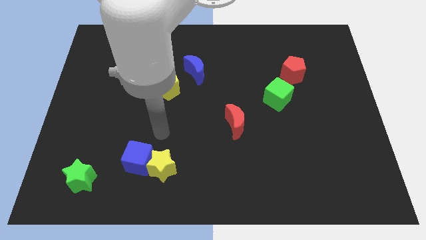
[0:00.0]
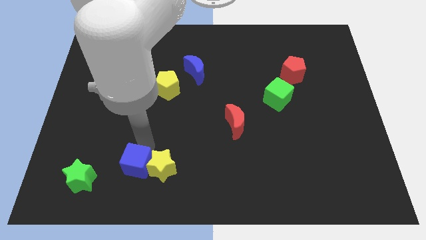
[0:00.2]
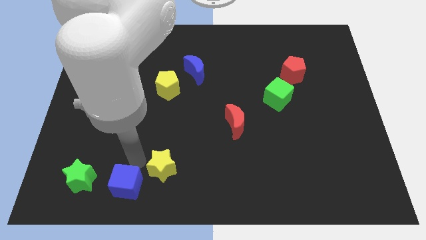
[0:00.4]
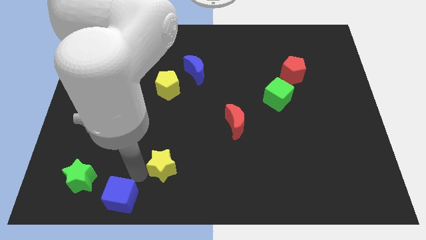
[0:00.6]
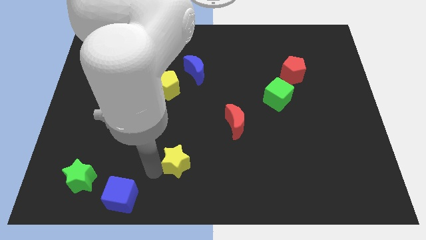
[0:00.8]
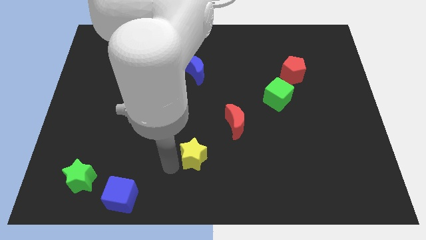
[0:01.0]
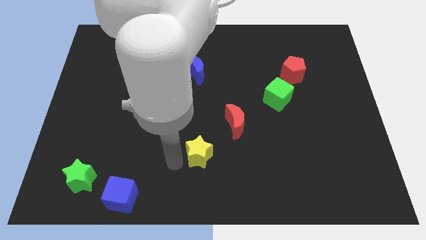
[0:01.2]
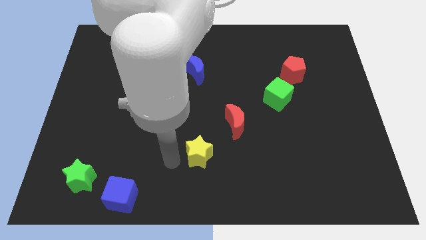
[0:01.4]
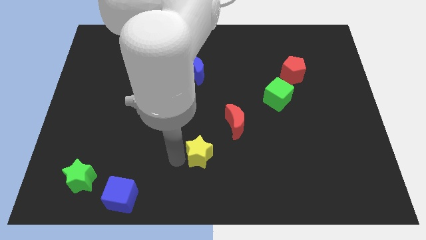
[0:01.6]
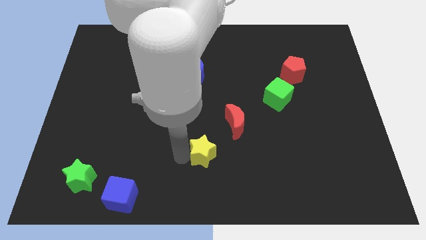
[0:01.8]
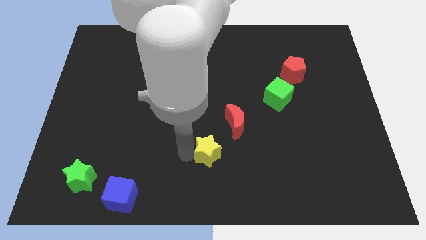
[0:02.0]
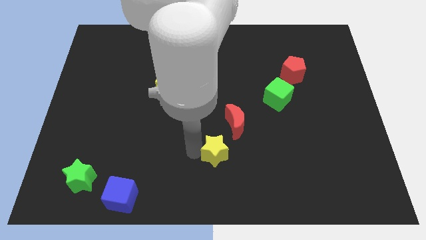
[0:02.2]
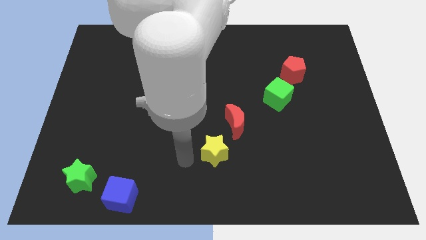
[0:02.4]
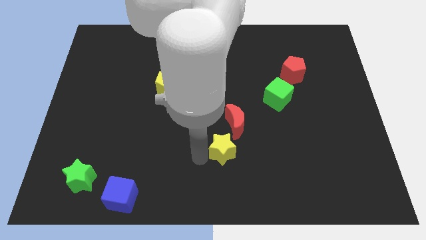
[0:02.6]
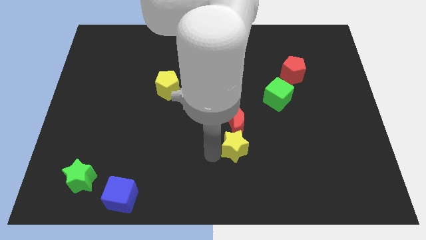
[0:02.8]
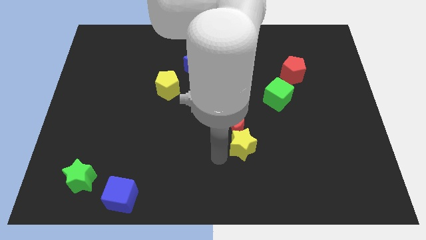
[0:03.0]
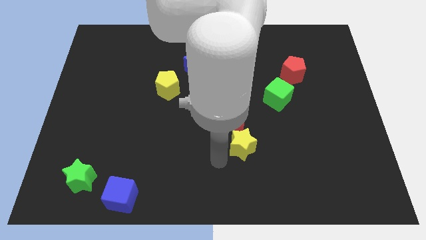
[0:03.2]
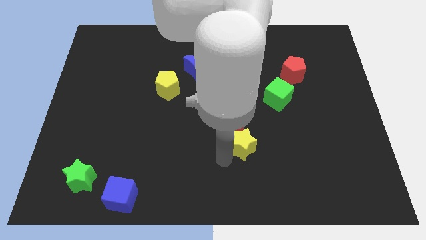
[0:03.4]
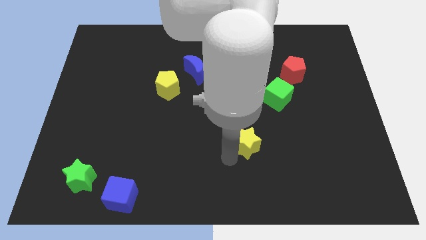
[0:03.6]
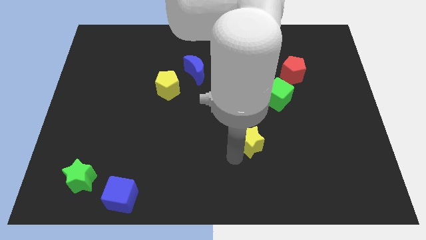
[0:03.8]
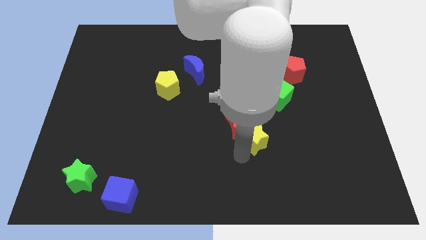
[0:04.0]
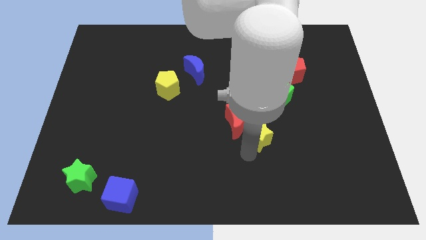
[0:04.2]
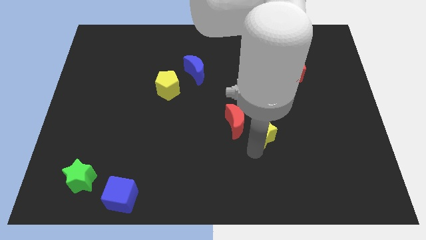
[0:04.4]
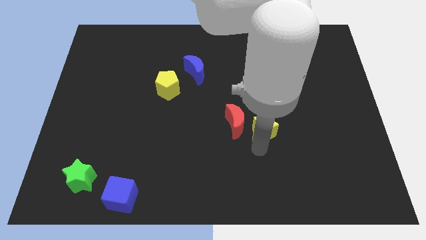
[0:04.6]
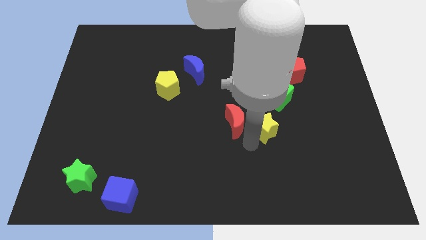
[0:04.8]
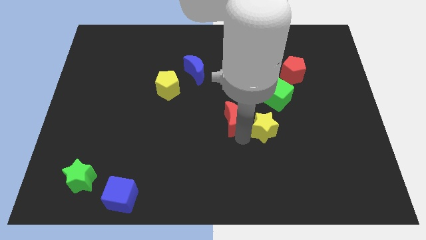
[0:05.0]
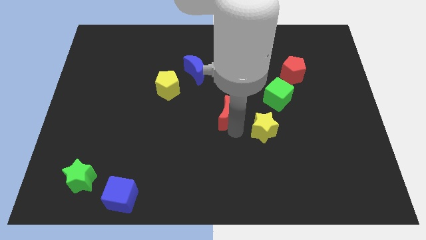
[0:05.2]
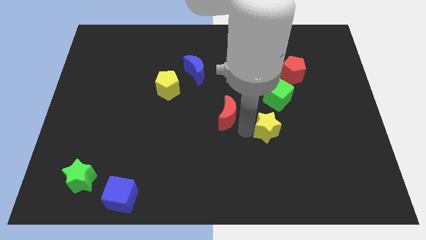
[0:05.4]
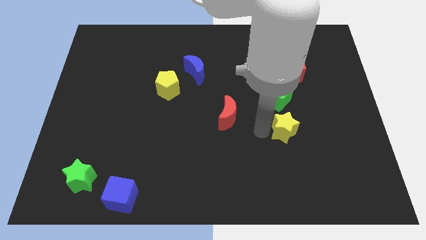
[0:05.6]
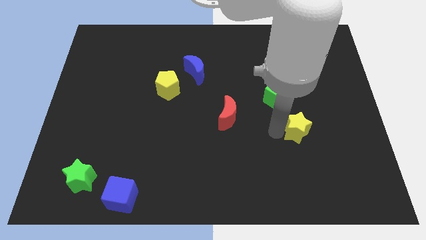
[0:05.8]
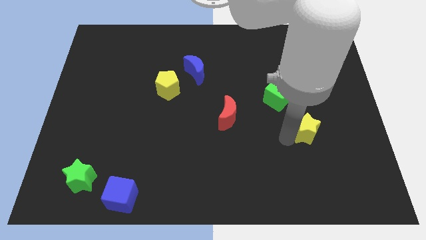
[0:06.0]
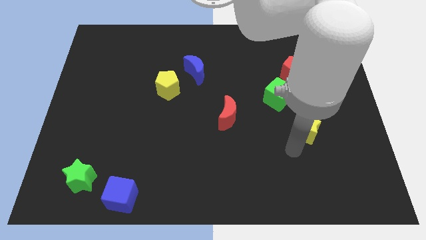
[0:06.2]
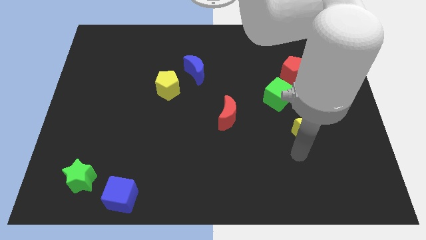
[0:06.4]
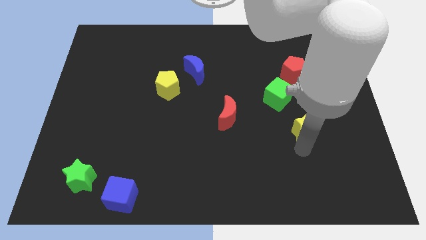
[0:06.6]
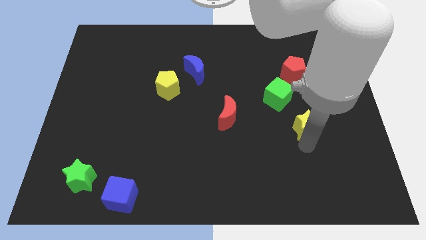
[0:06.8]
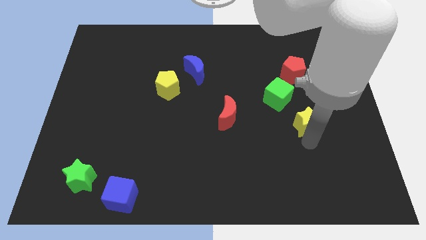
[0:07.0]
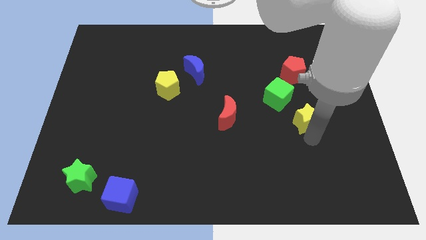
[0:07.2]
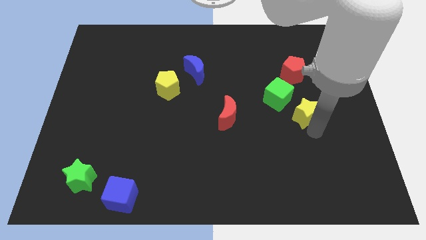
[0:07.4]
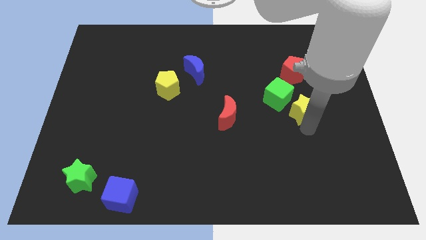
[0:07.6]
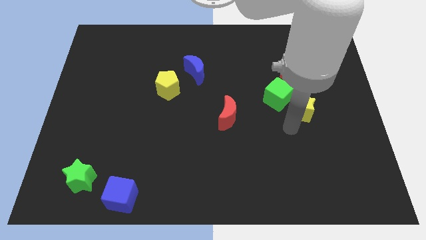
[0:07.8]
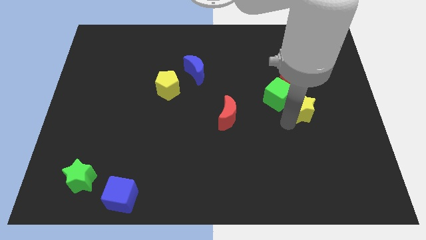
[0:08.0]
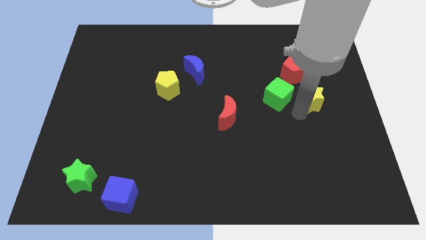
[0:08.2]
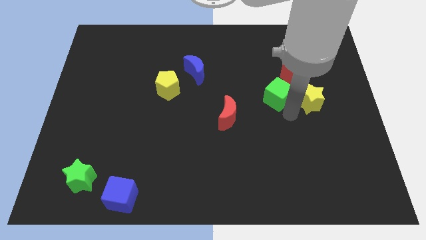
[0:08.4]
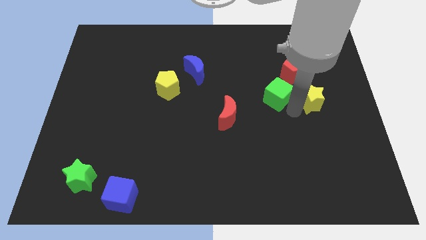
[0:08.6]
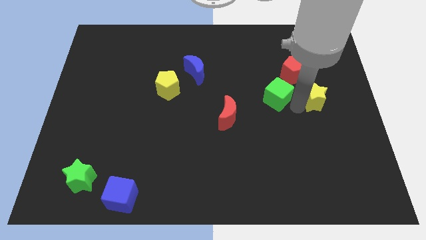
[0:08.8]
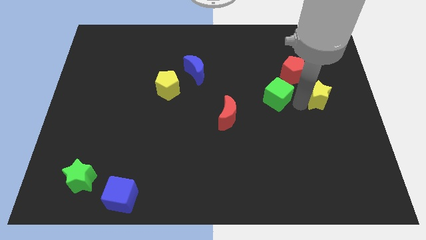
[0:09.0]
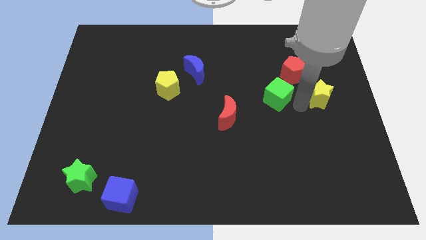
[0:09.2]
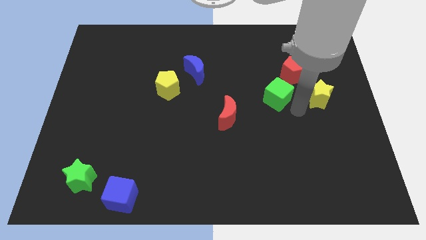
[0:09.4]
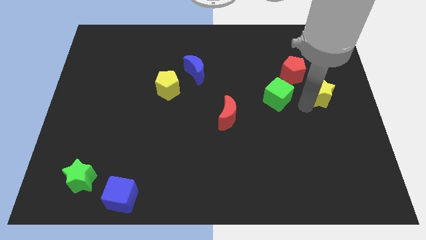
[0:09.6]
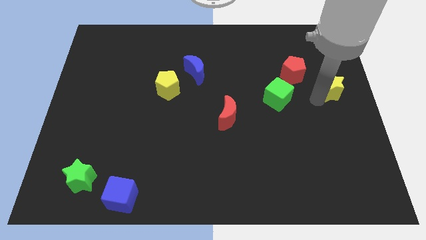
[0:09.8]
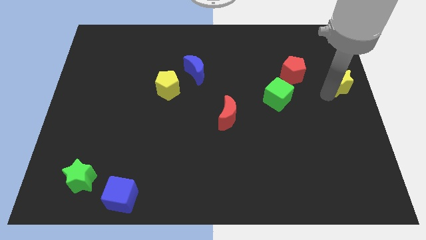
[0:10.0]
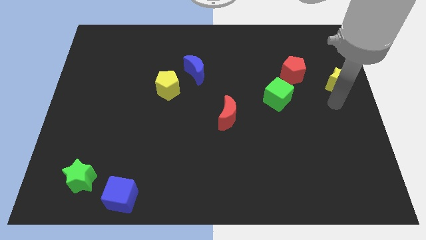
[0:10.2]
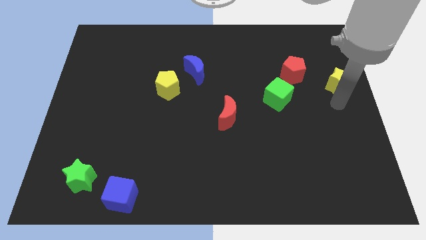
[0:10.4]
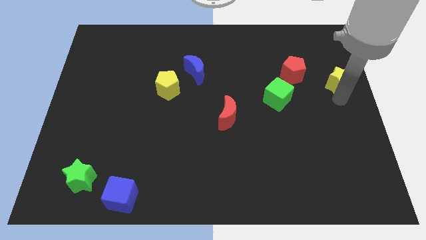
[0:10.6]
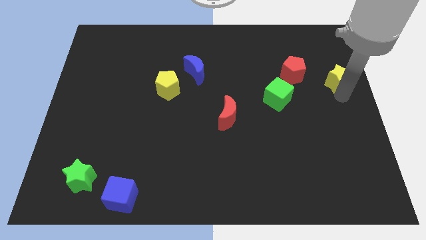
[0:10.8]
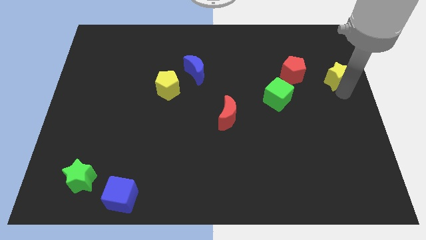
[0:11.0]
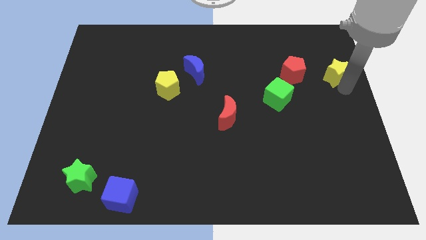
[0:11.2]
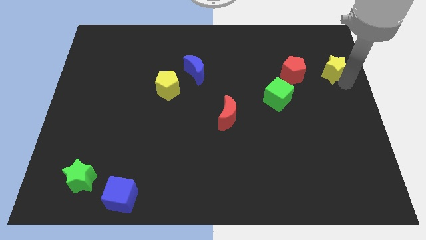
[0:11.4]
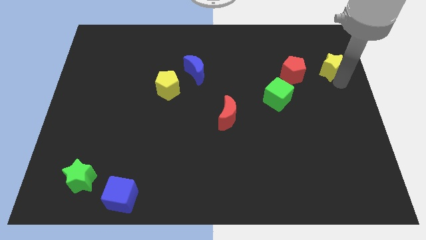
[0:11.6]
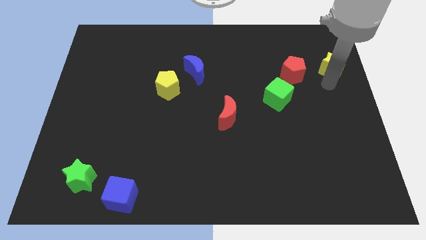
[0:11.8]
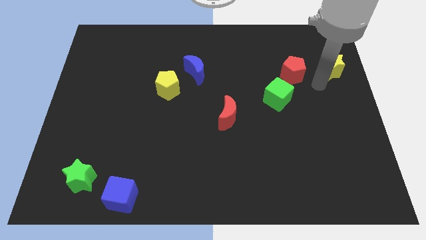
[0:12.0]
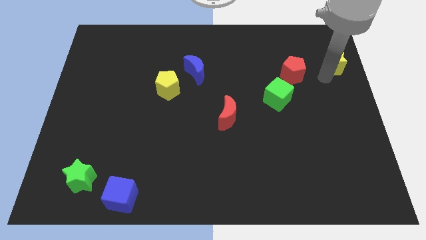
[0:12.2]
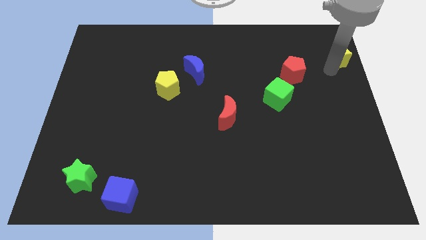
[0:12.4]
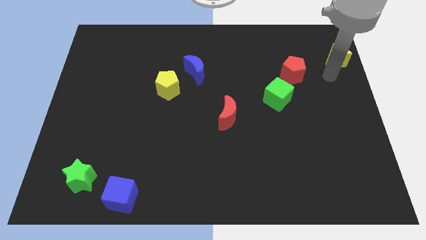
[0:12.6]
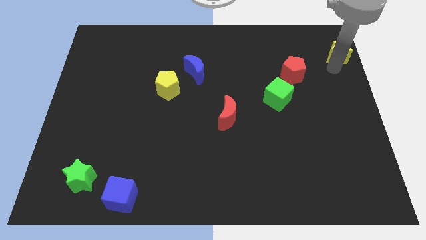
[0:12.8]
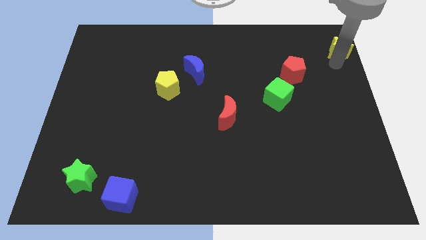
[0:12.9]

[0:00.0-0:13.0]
move the yellow star to the top right of the board
